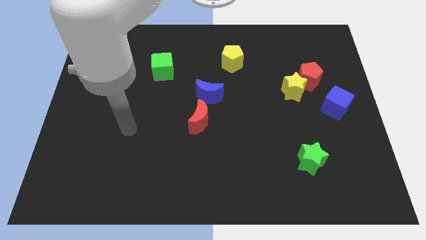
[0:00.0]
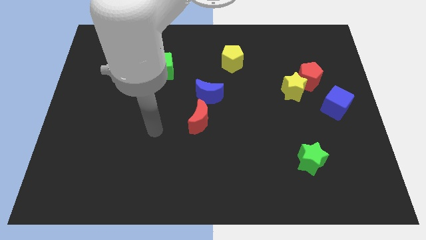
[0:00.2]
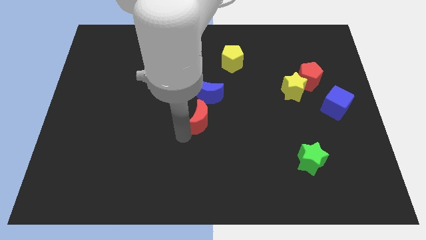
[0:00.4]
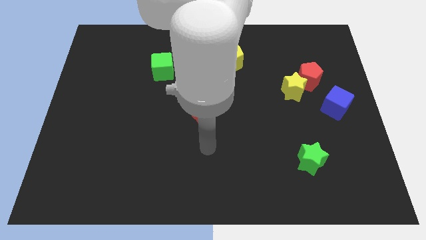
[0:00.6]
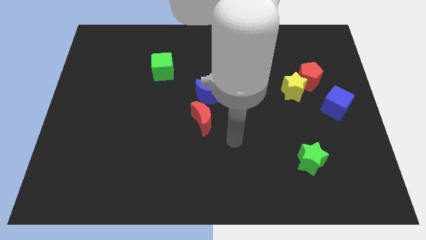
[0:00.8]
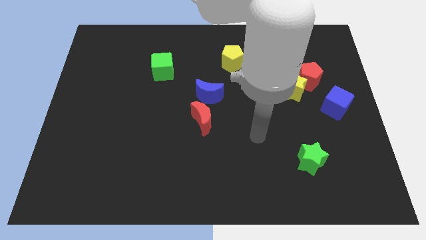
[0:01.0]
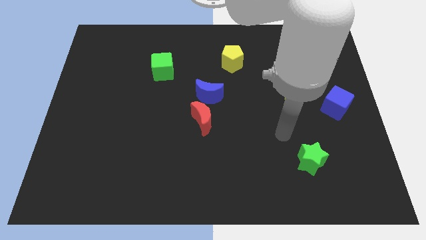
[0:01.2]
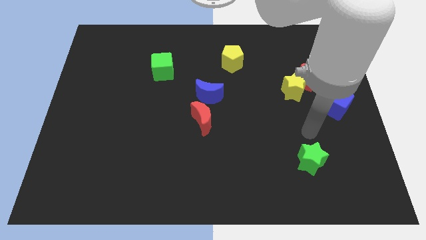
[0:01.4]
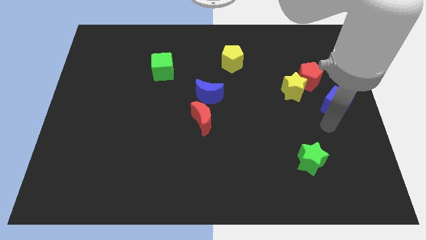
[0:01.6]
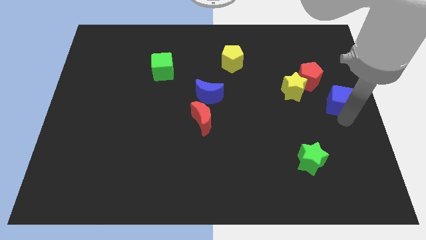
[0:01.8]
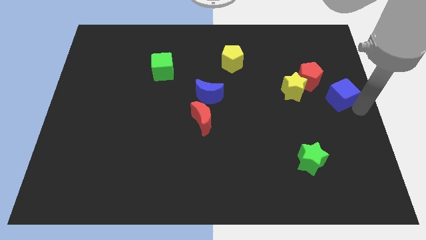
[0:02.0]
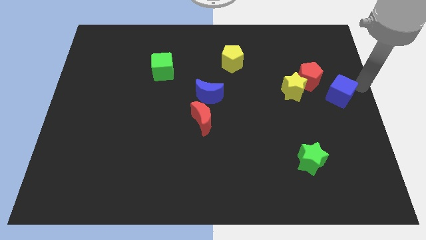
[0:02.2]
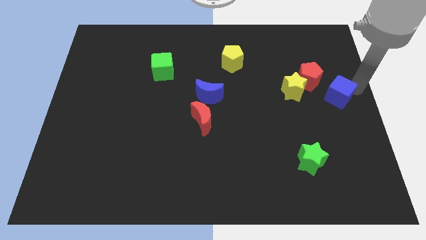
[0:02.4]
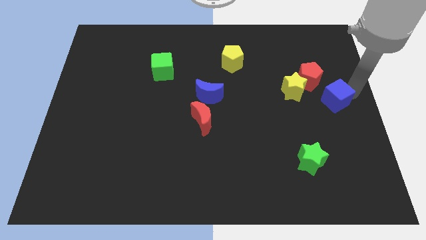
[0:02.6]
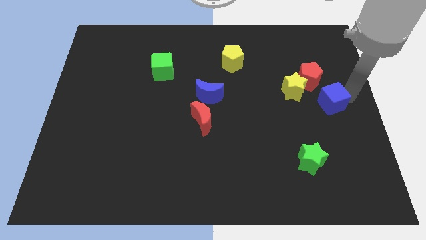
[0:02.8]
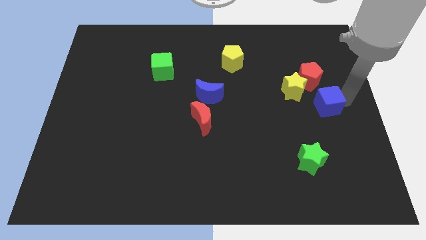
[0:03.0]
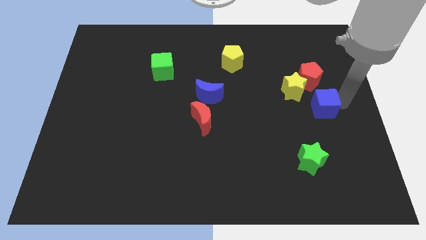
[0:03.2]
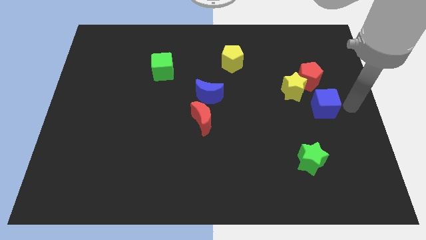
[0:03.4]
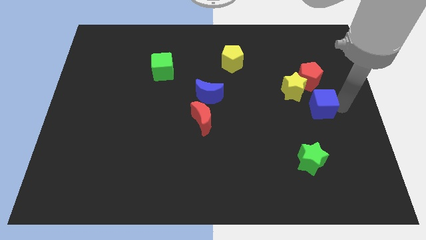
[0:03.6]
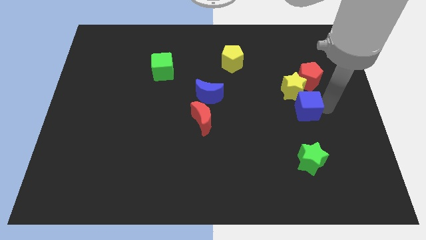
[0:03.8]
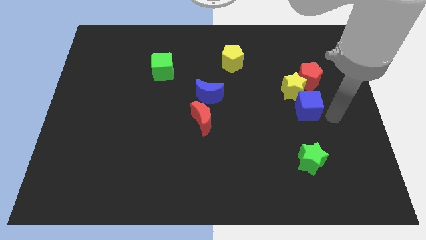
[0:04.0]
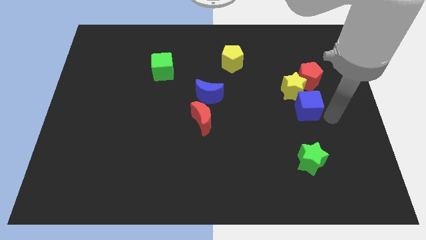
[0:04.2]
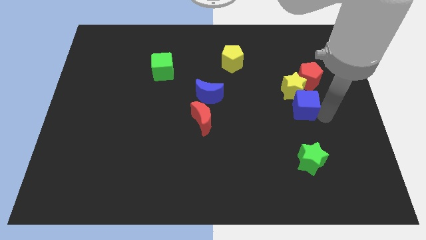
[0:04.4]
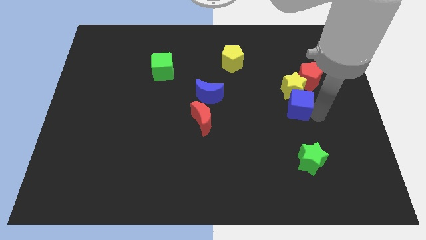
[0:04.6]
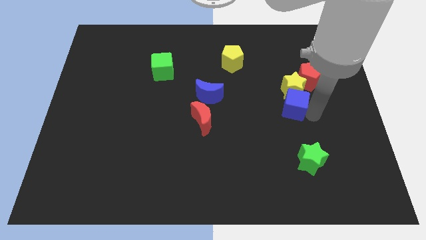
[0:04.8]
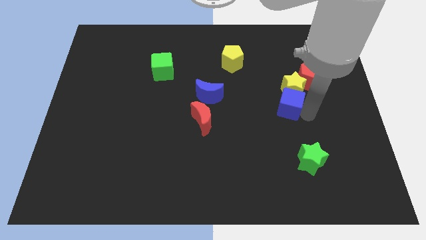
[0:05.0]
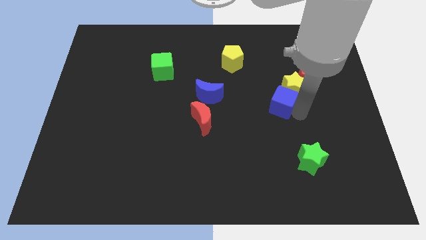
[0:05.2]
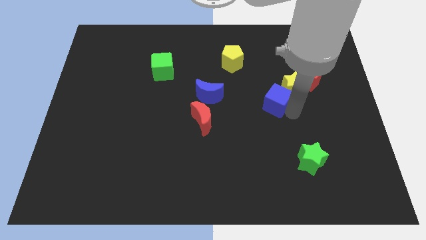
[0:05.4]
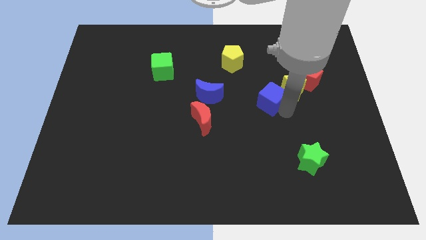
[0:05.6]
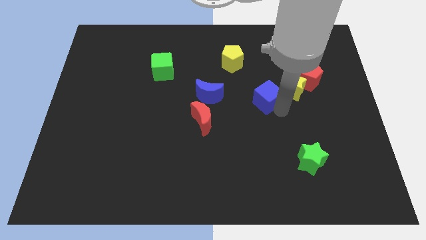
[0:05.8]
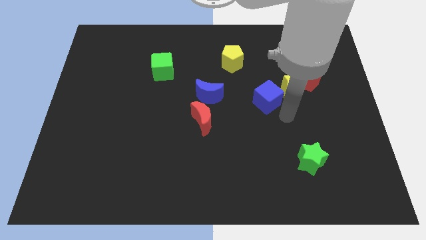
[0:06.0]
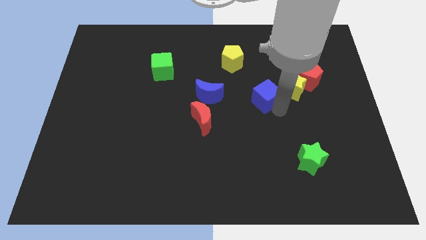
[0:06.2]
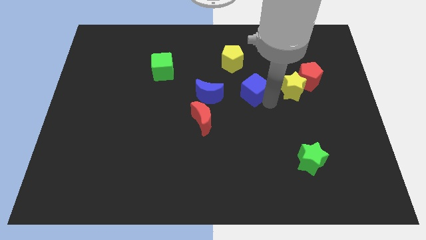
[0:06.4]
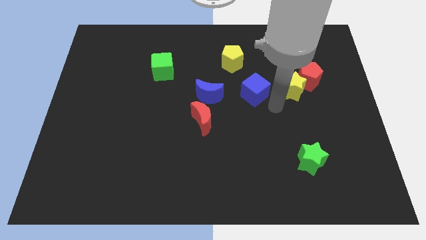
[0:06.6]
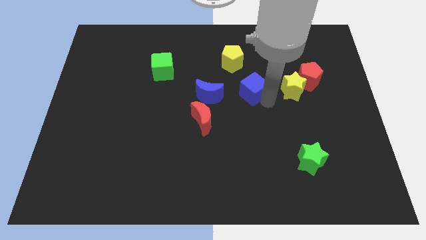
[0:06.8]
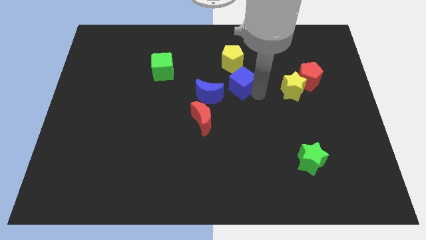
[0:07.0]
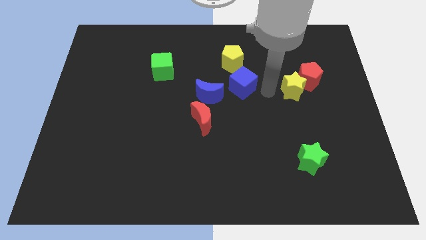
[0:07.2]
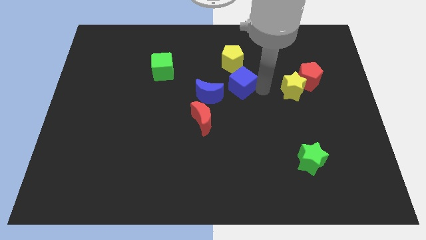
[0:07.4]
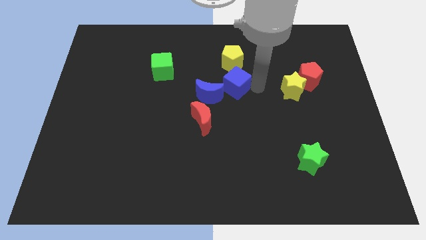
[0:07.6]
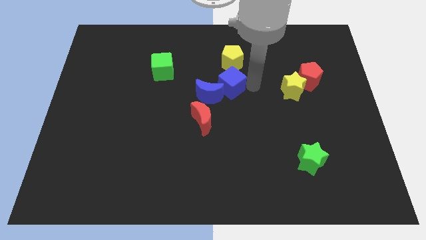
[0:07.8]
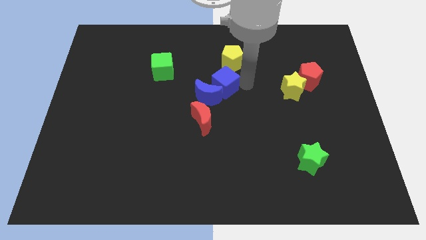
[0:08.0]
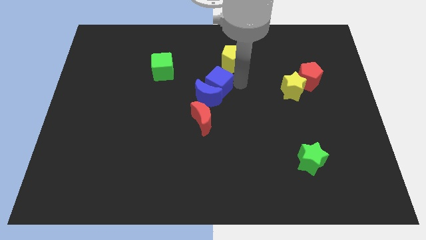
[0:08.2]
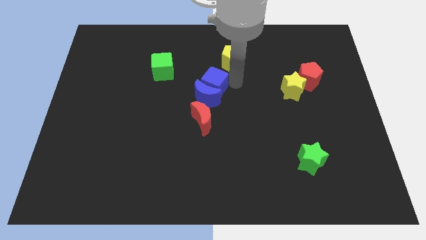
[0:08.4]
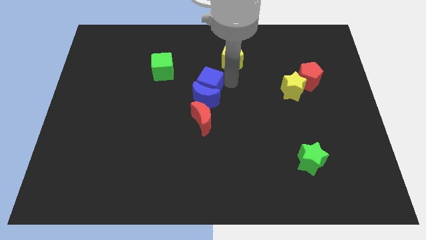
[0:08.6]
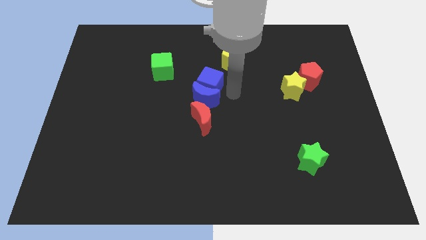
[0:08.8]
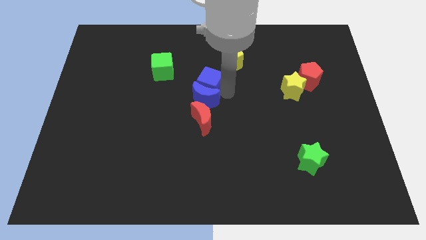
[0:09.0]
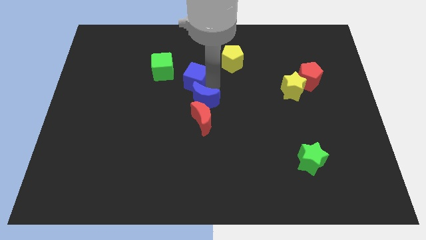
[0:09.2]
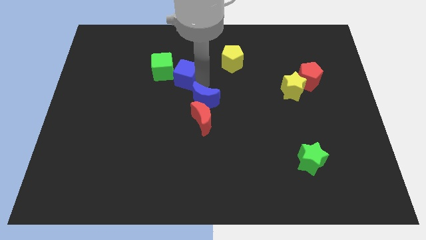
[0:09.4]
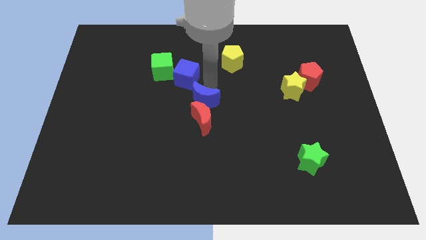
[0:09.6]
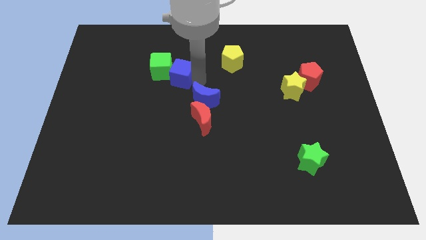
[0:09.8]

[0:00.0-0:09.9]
put the blue cube towards the green cube

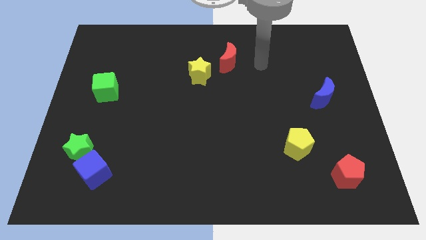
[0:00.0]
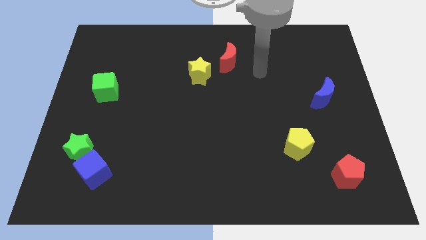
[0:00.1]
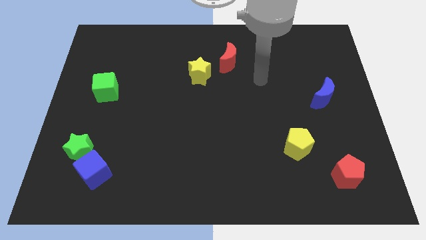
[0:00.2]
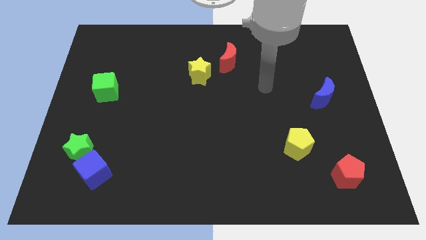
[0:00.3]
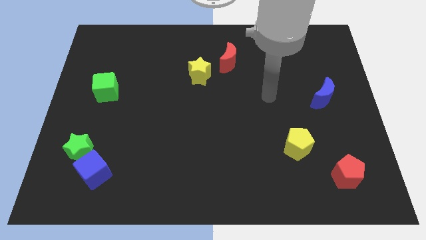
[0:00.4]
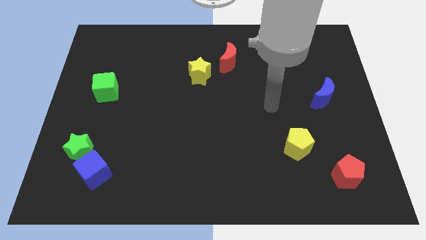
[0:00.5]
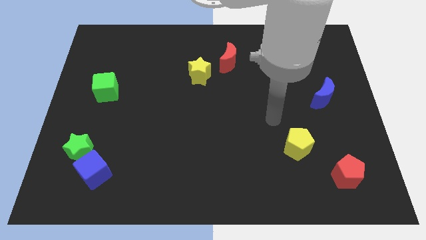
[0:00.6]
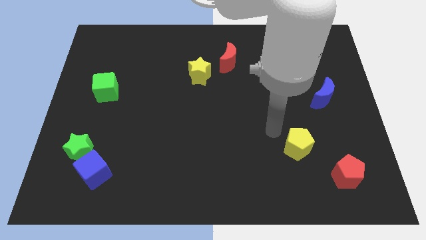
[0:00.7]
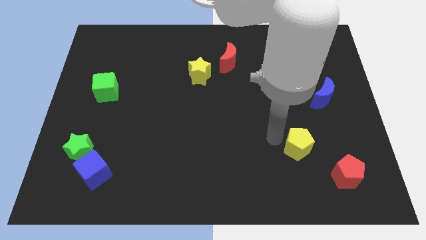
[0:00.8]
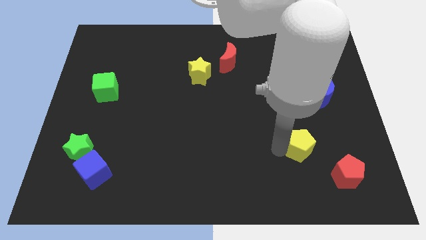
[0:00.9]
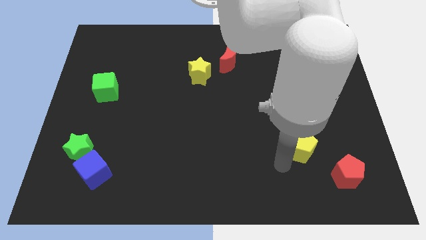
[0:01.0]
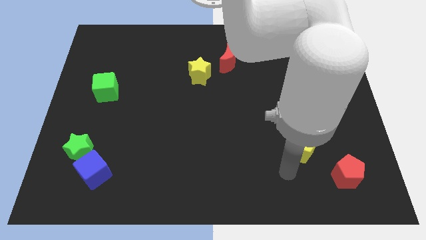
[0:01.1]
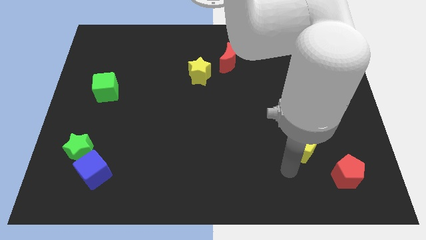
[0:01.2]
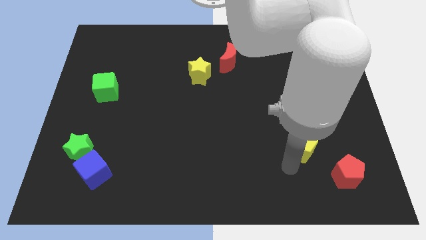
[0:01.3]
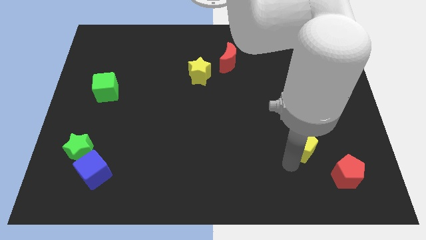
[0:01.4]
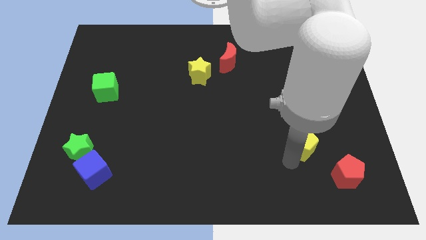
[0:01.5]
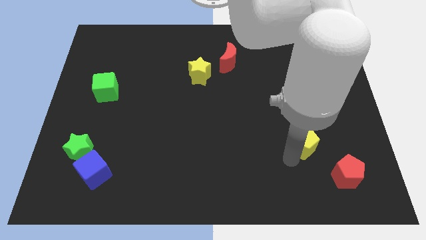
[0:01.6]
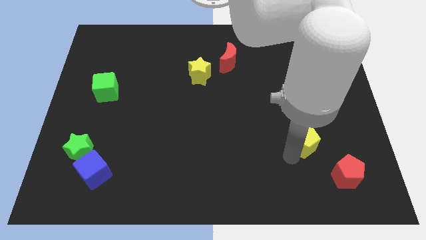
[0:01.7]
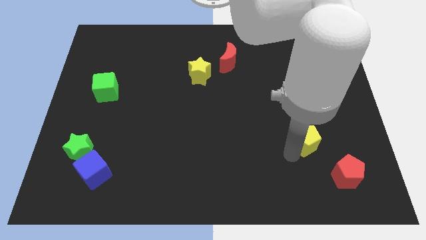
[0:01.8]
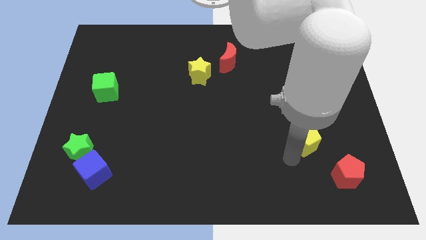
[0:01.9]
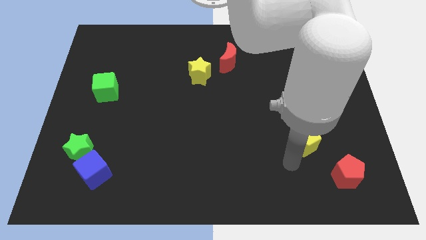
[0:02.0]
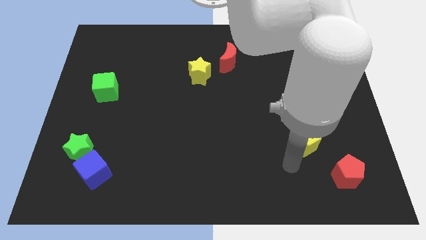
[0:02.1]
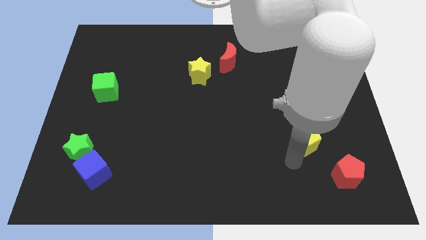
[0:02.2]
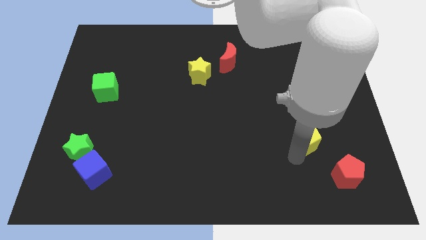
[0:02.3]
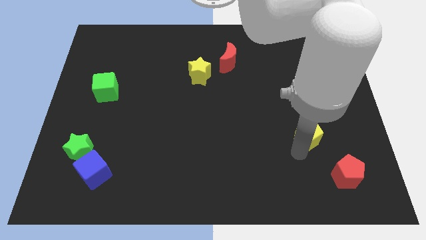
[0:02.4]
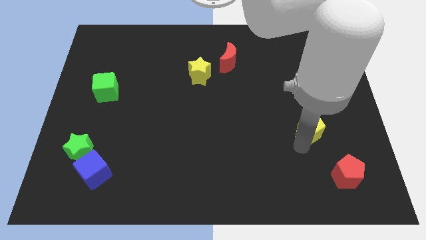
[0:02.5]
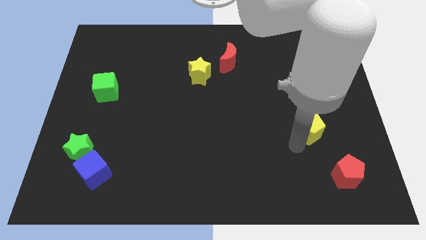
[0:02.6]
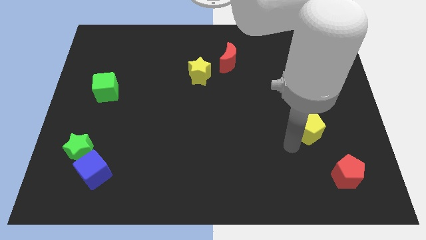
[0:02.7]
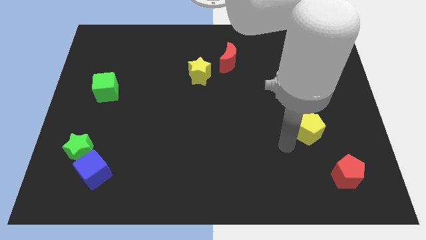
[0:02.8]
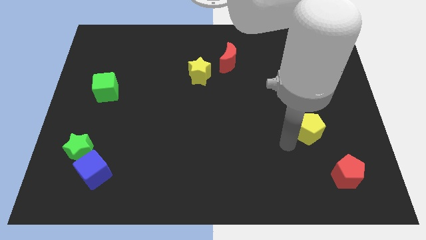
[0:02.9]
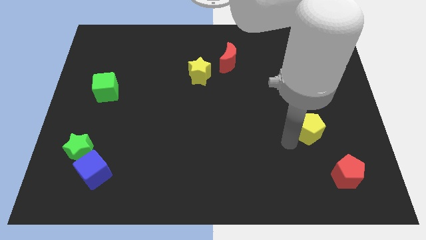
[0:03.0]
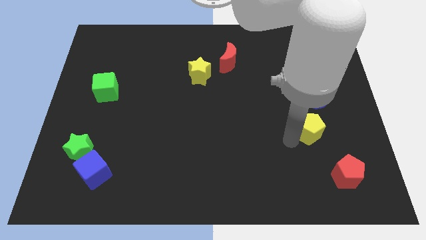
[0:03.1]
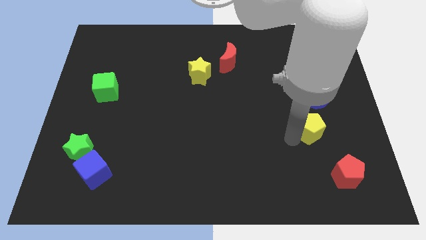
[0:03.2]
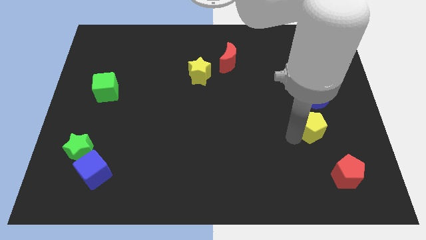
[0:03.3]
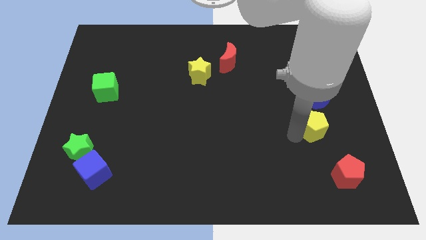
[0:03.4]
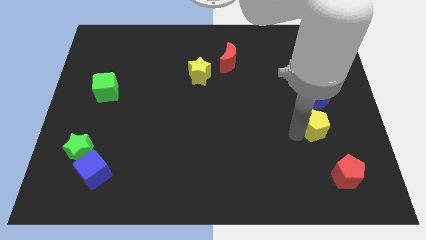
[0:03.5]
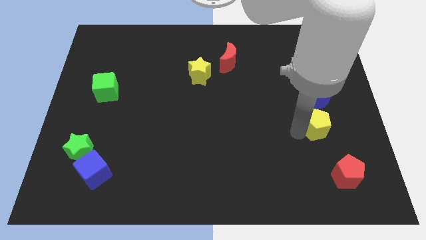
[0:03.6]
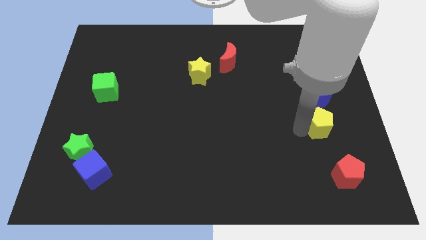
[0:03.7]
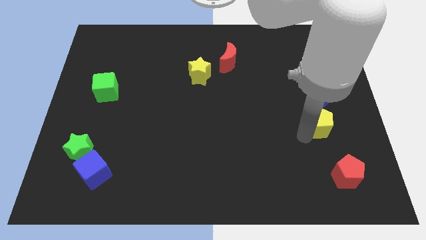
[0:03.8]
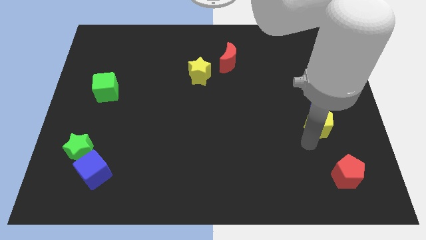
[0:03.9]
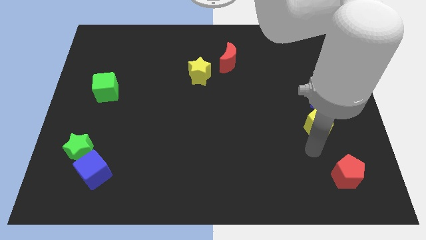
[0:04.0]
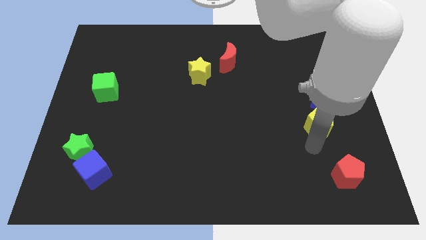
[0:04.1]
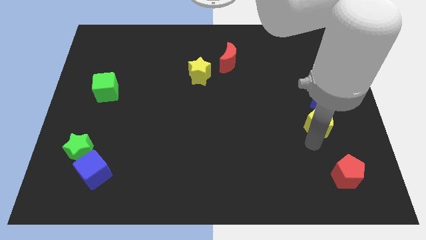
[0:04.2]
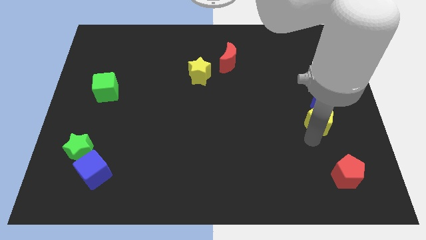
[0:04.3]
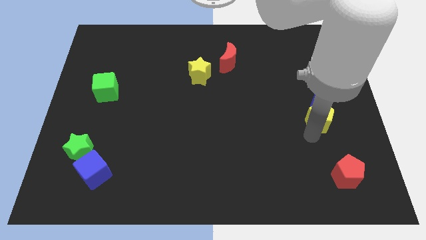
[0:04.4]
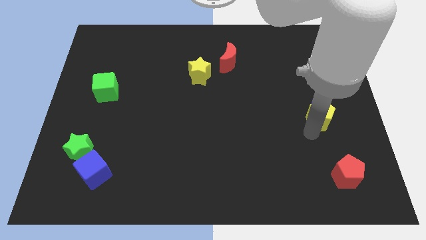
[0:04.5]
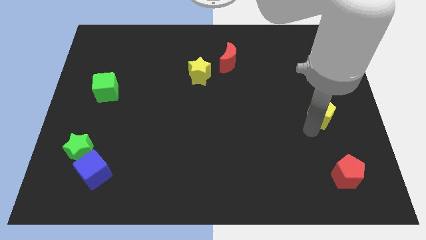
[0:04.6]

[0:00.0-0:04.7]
put the yellow pentagon close to the blue moon
